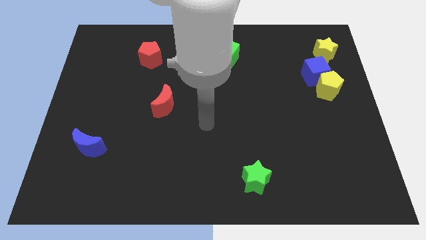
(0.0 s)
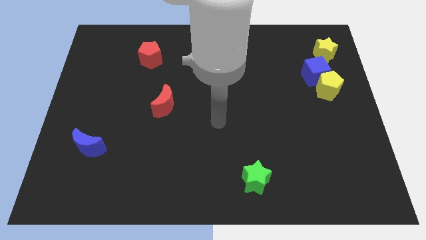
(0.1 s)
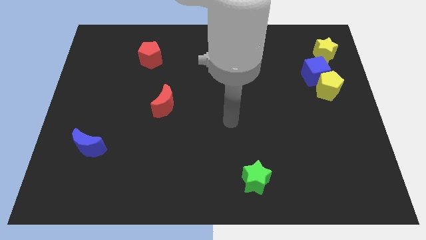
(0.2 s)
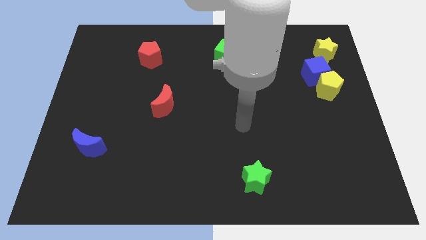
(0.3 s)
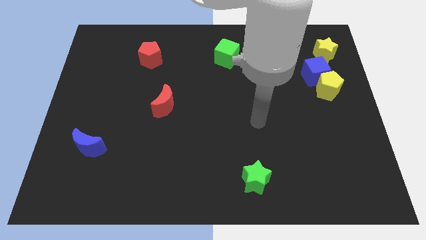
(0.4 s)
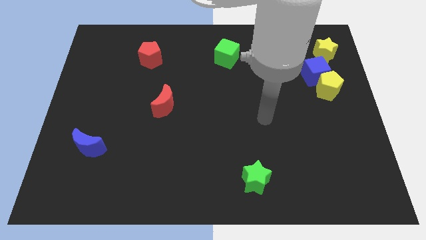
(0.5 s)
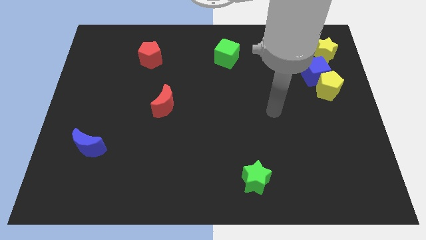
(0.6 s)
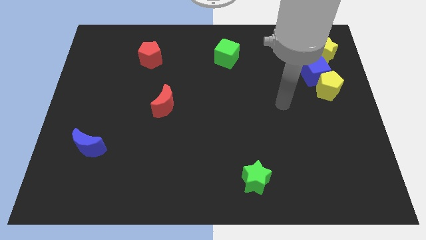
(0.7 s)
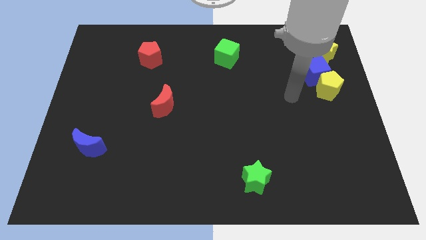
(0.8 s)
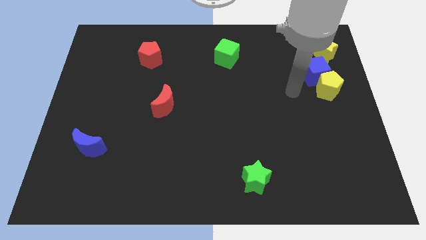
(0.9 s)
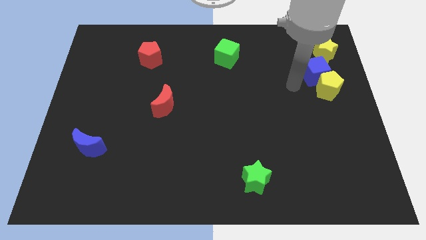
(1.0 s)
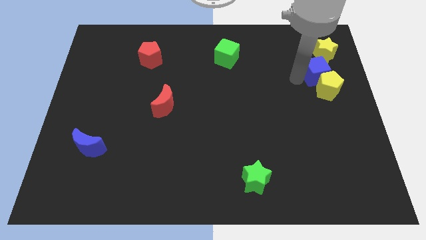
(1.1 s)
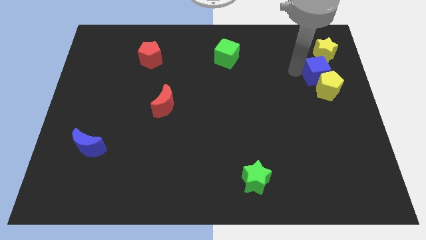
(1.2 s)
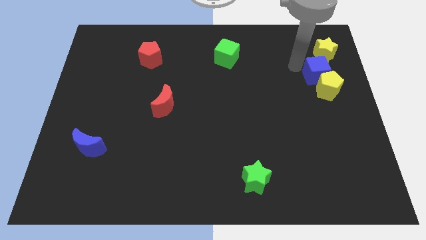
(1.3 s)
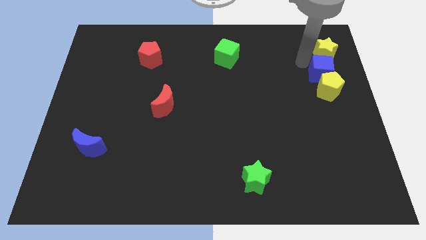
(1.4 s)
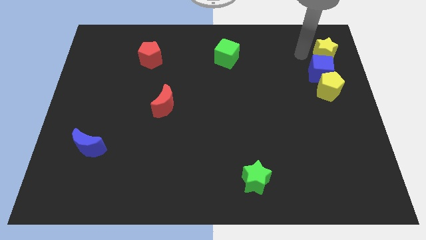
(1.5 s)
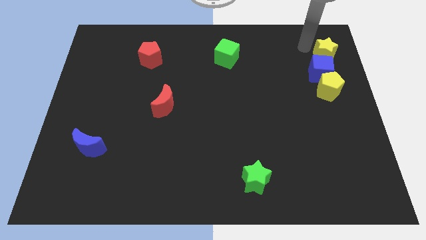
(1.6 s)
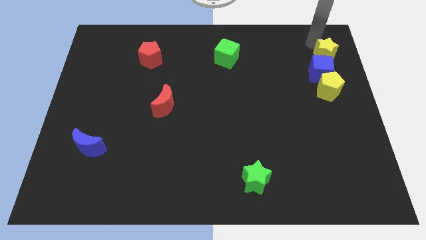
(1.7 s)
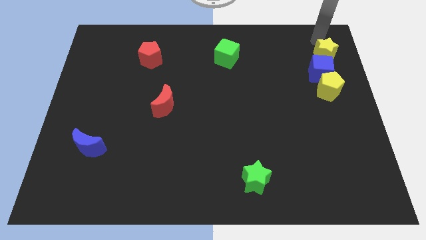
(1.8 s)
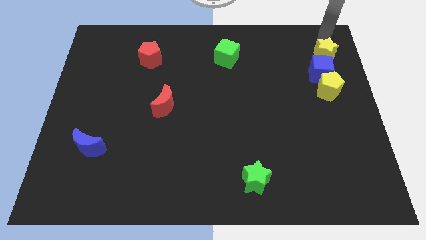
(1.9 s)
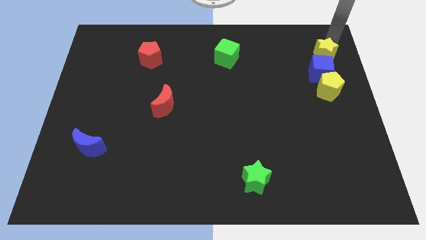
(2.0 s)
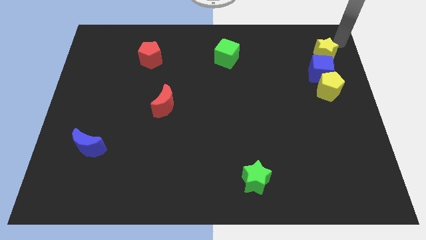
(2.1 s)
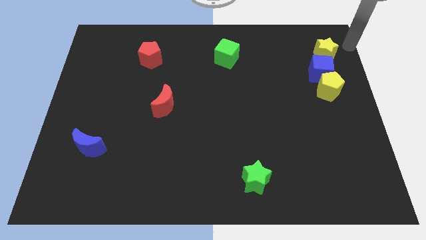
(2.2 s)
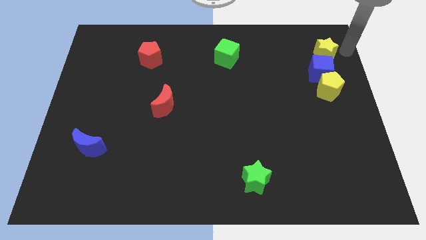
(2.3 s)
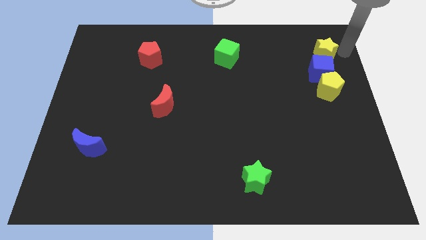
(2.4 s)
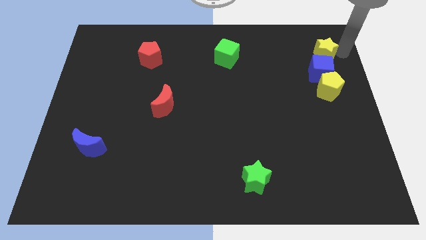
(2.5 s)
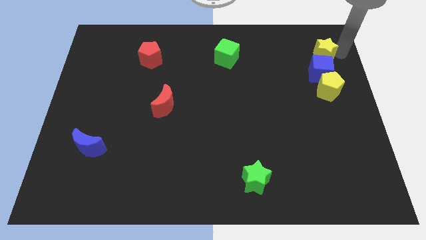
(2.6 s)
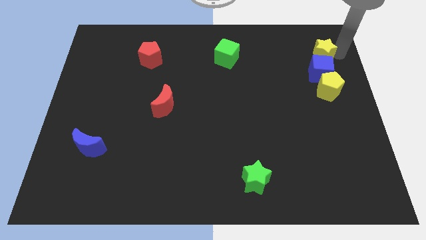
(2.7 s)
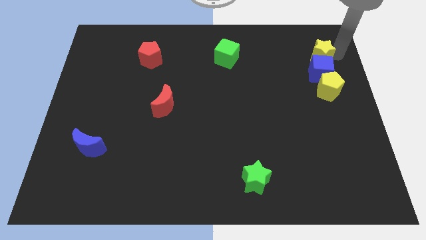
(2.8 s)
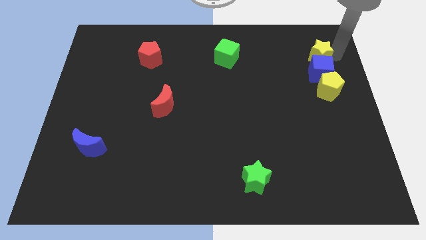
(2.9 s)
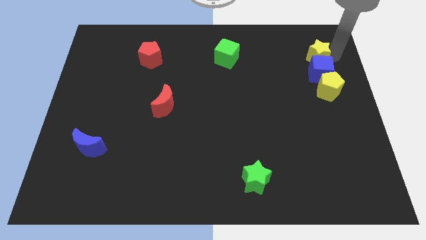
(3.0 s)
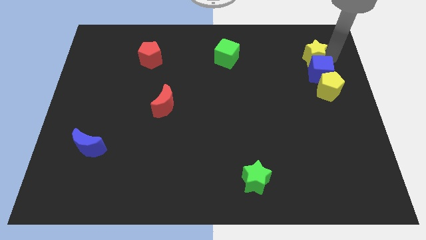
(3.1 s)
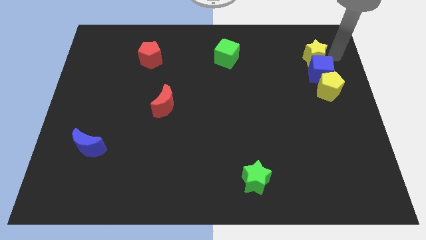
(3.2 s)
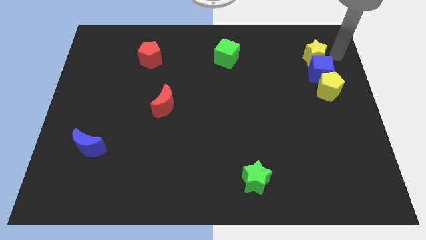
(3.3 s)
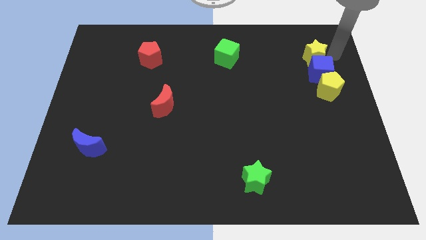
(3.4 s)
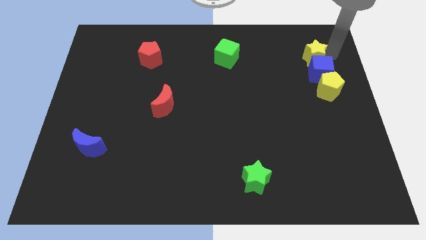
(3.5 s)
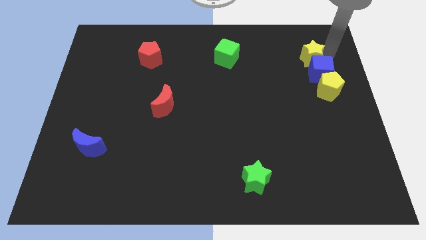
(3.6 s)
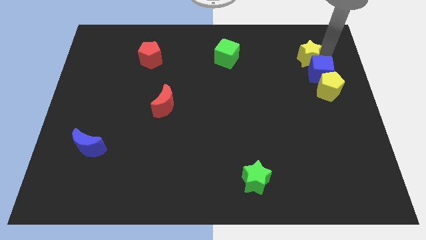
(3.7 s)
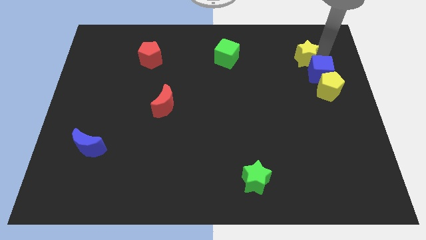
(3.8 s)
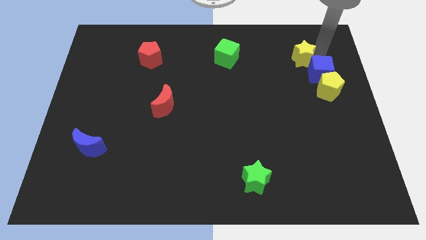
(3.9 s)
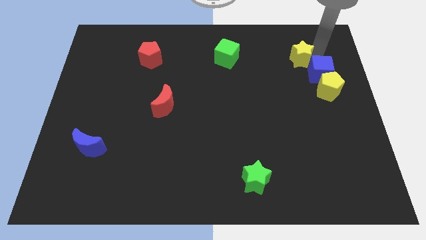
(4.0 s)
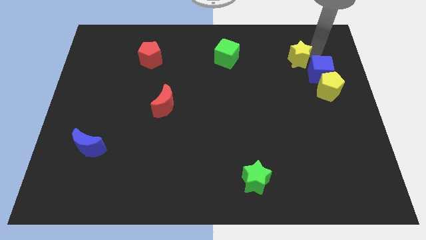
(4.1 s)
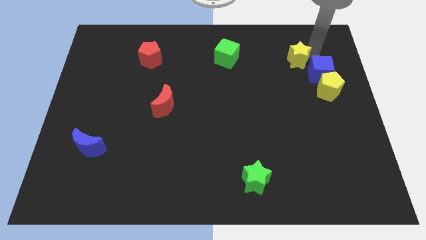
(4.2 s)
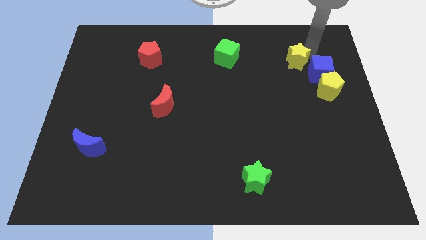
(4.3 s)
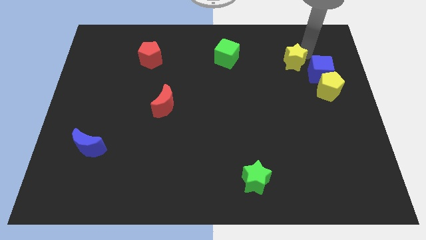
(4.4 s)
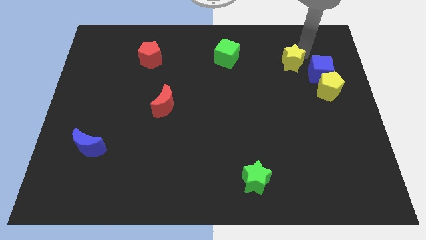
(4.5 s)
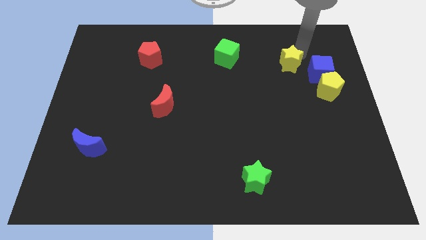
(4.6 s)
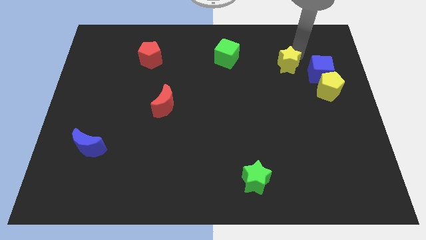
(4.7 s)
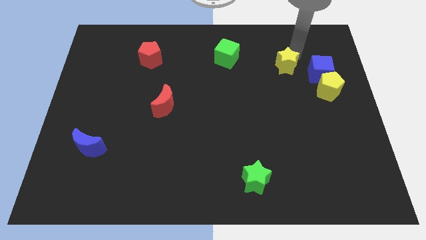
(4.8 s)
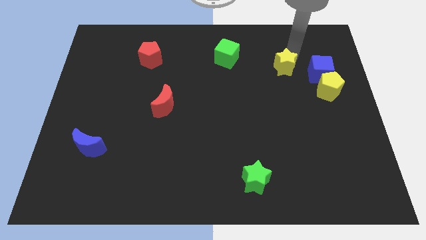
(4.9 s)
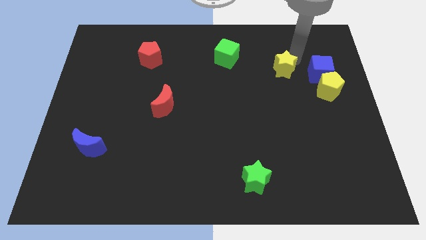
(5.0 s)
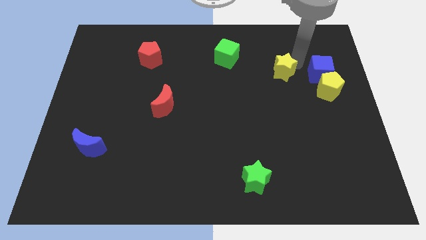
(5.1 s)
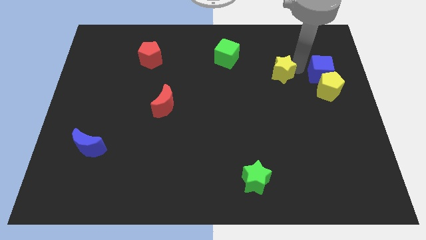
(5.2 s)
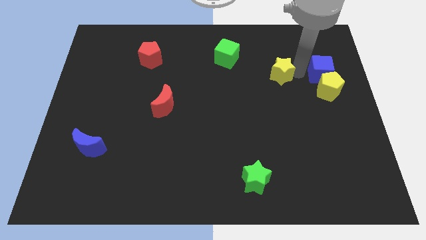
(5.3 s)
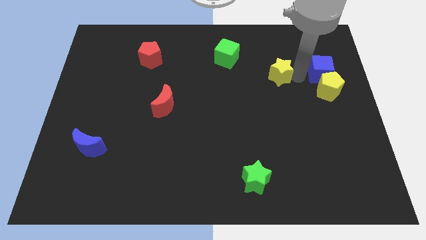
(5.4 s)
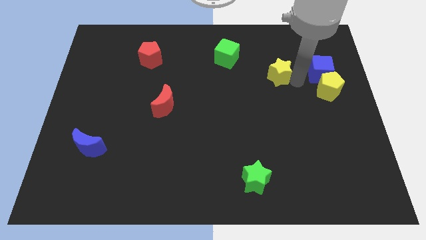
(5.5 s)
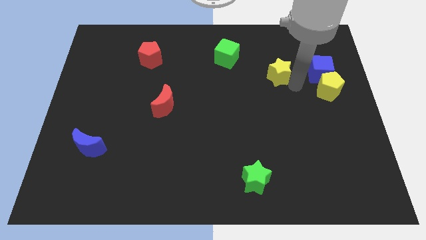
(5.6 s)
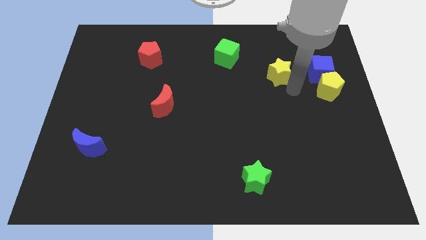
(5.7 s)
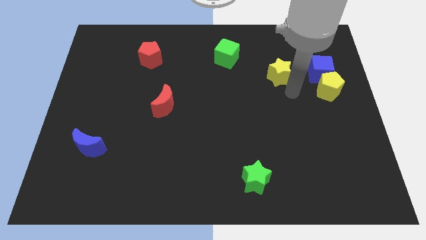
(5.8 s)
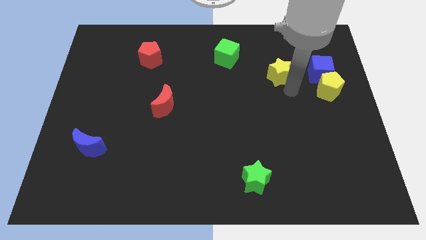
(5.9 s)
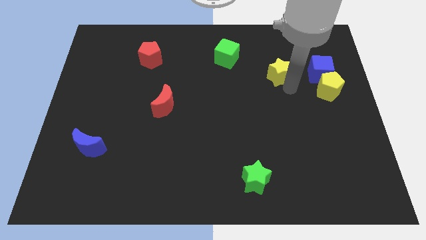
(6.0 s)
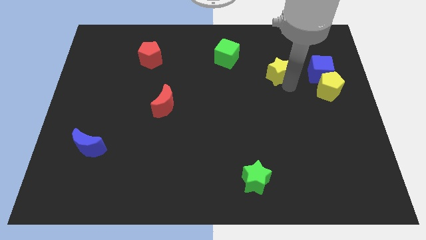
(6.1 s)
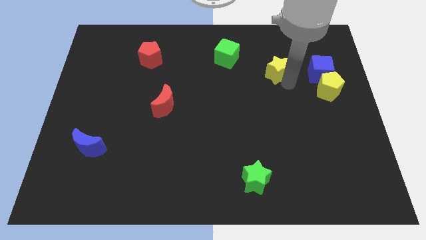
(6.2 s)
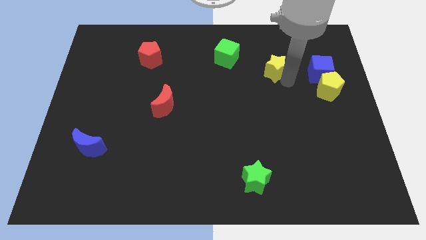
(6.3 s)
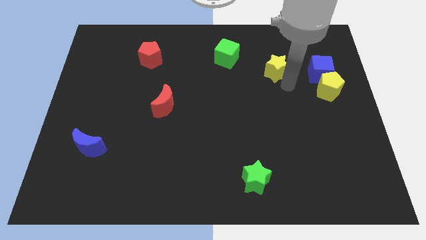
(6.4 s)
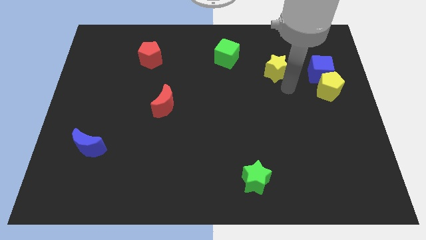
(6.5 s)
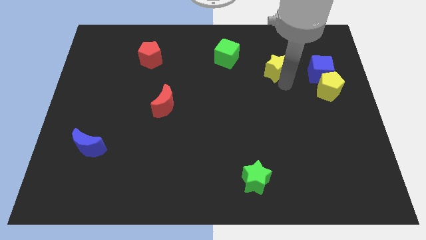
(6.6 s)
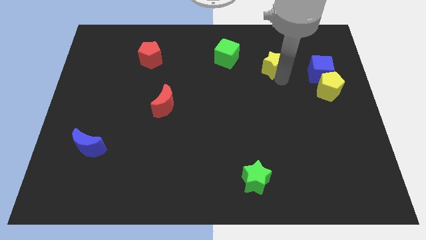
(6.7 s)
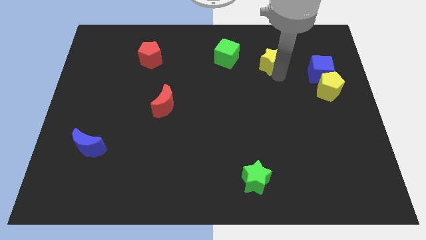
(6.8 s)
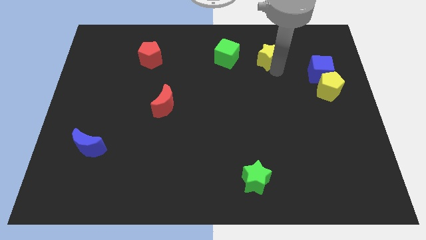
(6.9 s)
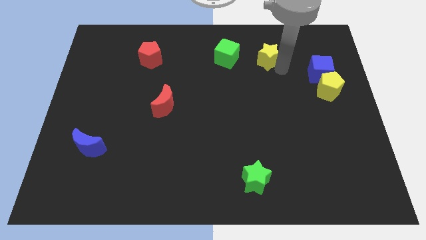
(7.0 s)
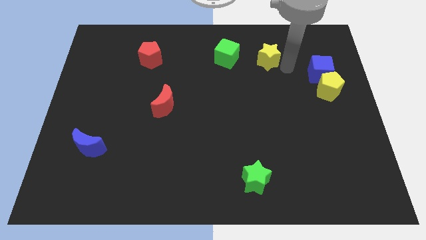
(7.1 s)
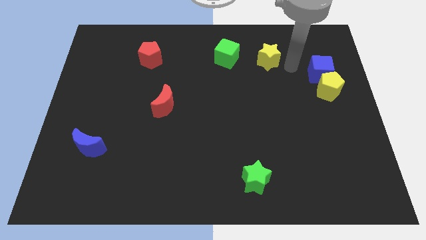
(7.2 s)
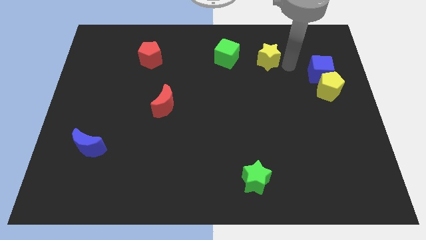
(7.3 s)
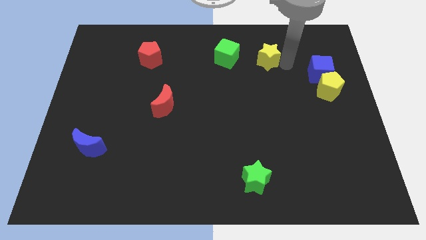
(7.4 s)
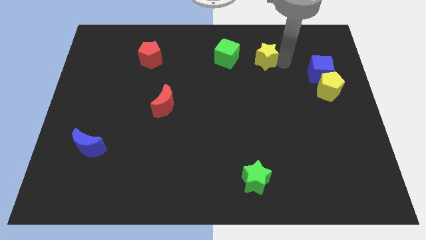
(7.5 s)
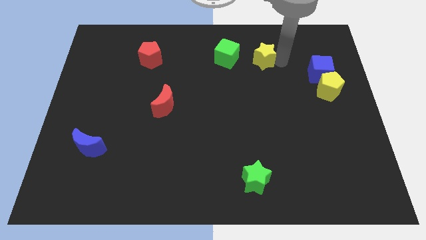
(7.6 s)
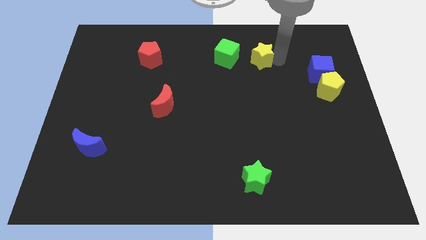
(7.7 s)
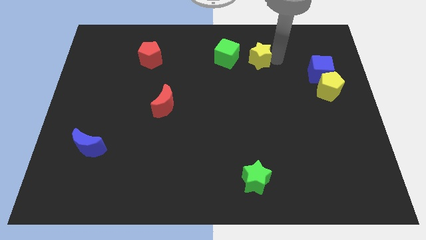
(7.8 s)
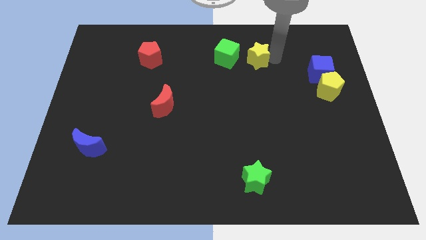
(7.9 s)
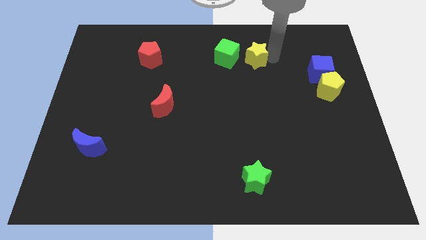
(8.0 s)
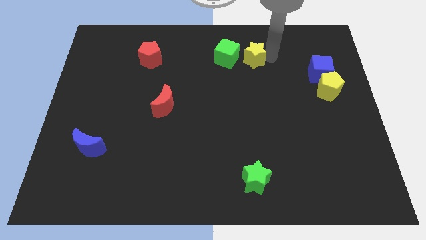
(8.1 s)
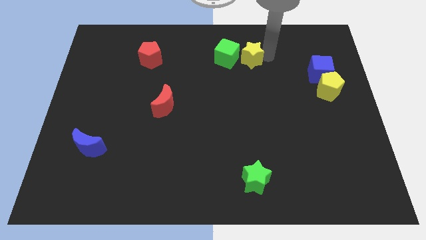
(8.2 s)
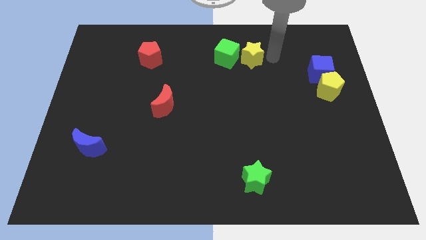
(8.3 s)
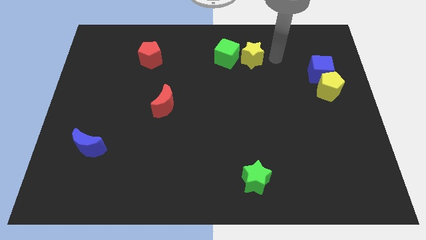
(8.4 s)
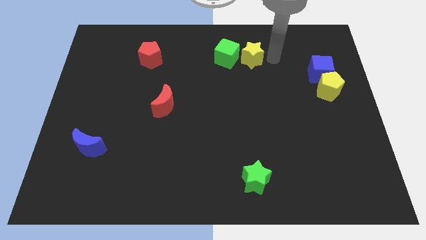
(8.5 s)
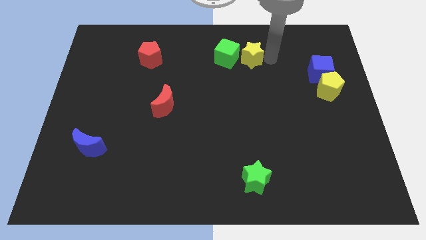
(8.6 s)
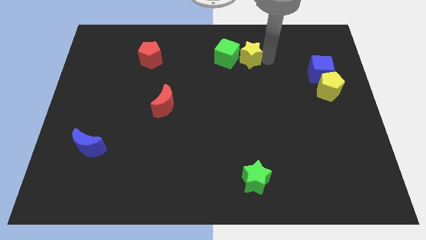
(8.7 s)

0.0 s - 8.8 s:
put the yellow star to the green cube
